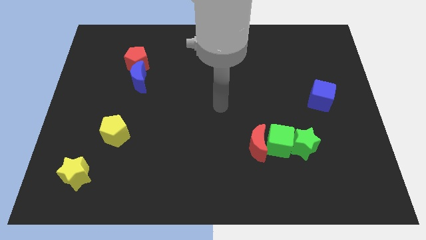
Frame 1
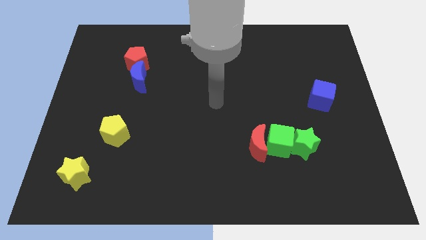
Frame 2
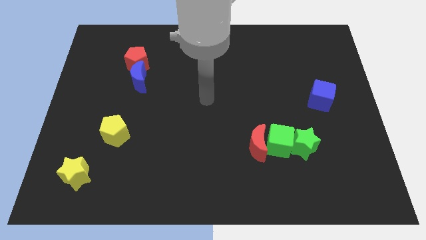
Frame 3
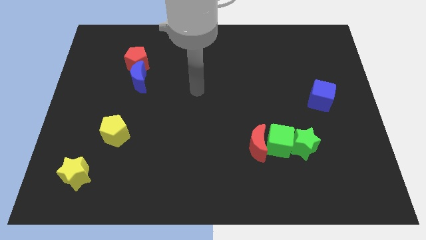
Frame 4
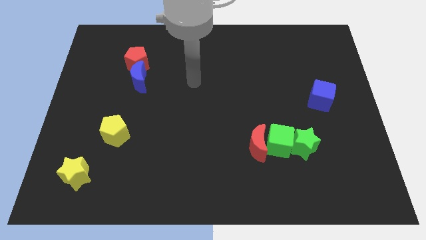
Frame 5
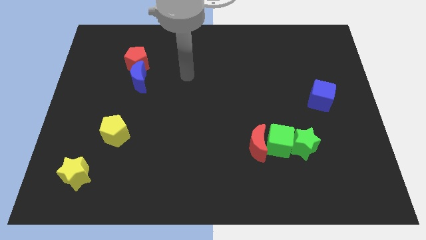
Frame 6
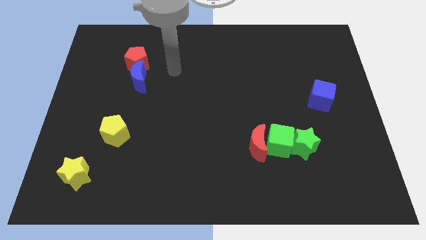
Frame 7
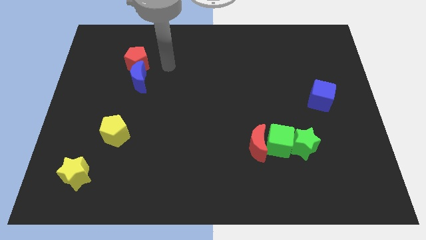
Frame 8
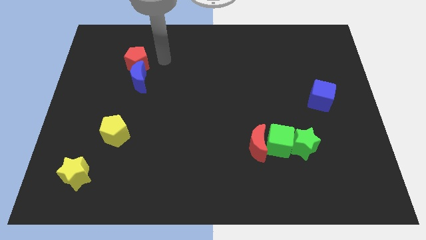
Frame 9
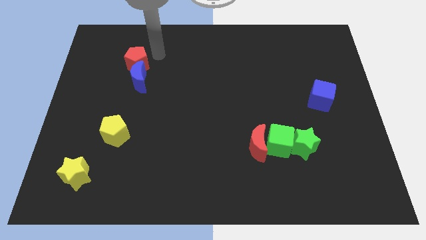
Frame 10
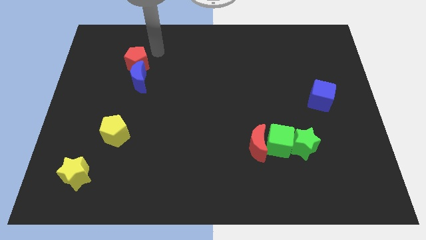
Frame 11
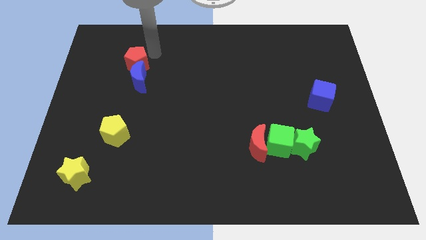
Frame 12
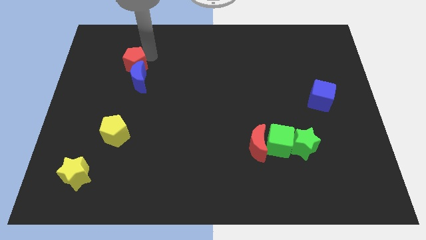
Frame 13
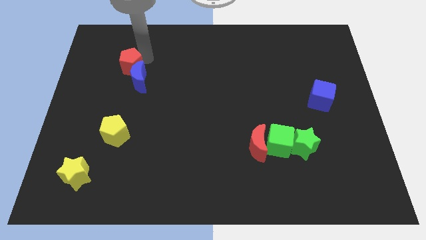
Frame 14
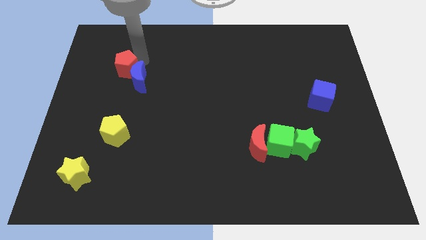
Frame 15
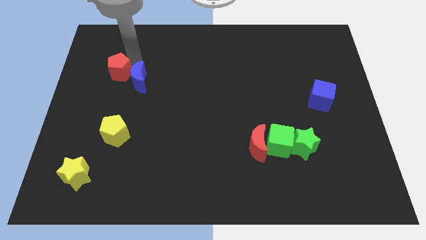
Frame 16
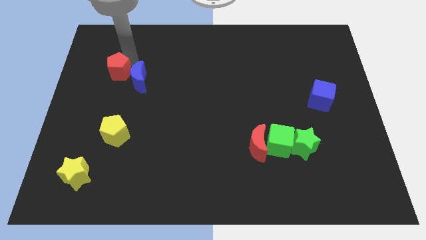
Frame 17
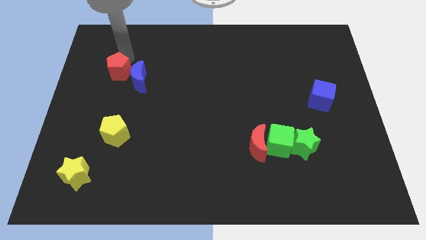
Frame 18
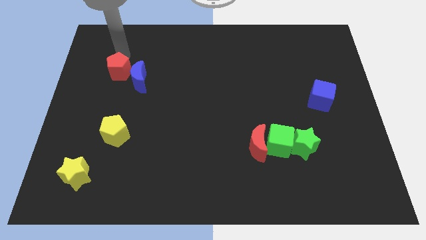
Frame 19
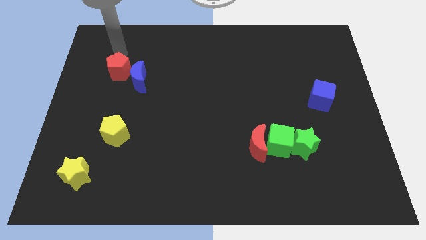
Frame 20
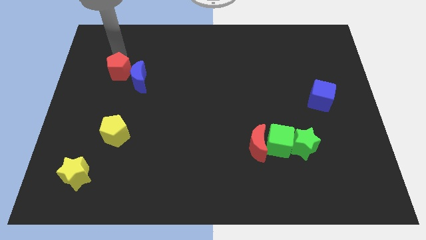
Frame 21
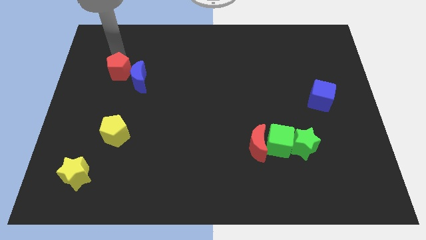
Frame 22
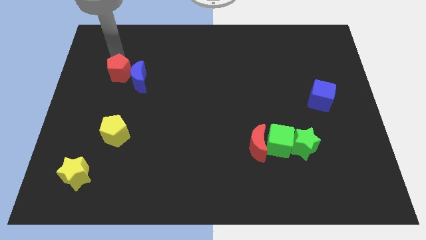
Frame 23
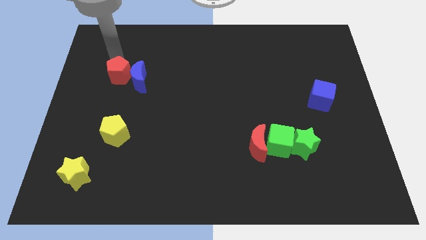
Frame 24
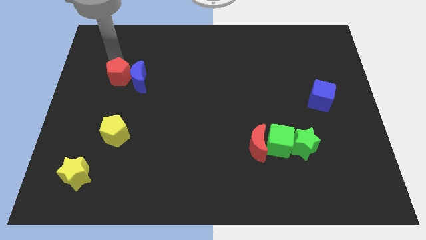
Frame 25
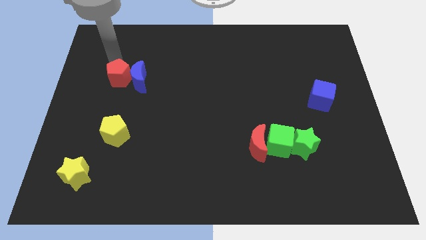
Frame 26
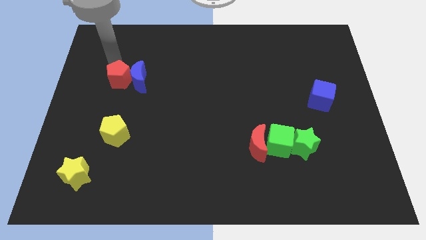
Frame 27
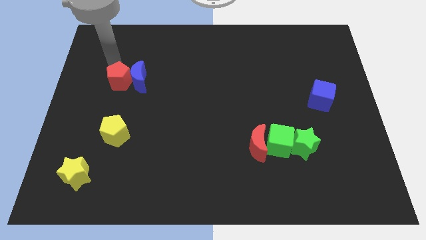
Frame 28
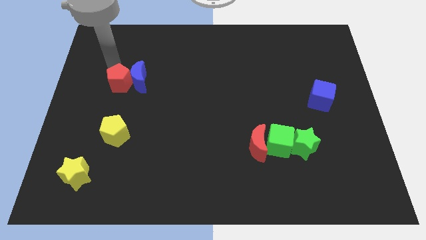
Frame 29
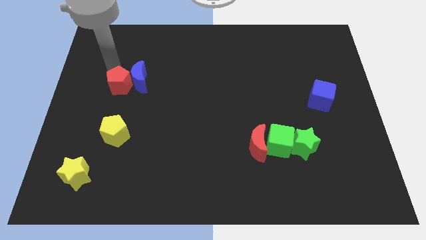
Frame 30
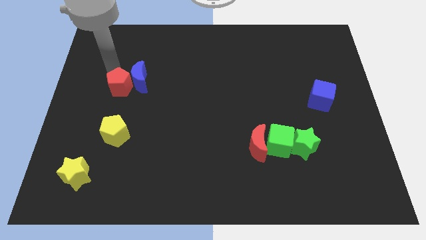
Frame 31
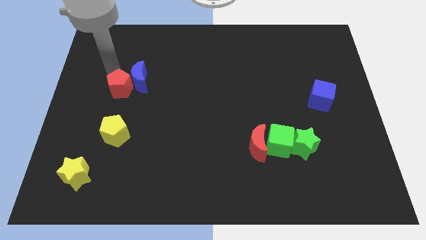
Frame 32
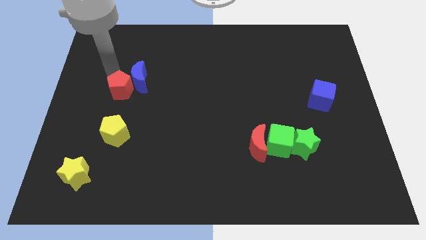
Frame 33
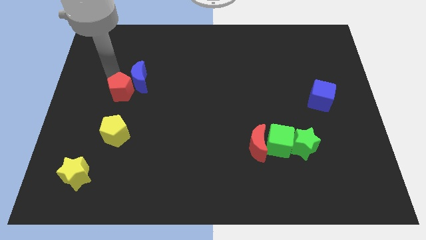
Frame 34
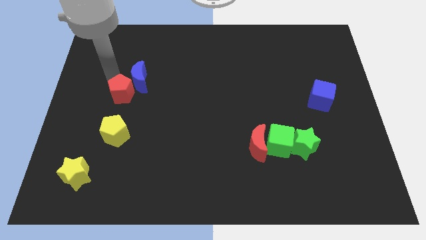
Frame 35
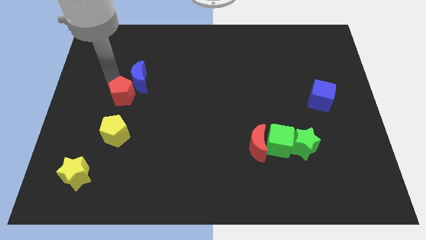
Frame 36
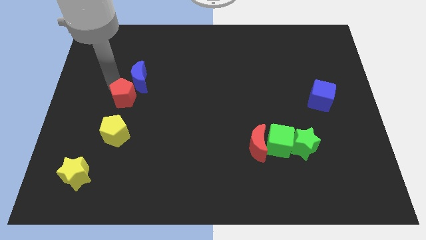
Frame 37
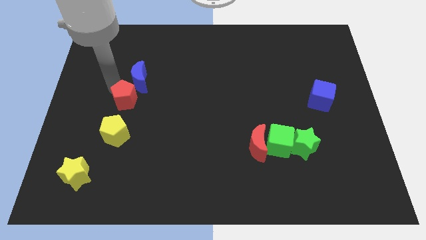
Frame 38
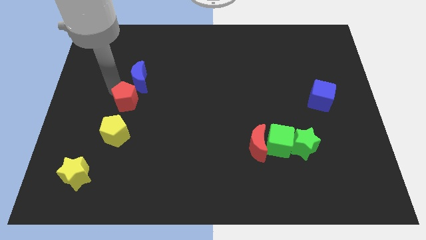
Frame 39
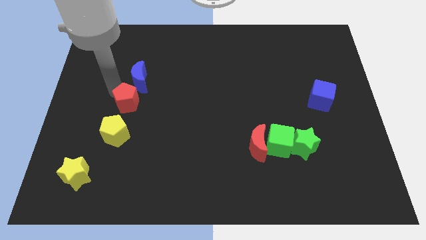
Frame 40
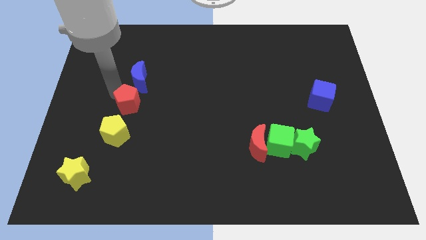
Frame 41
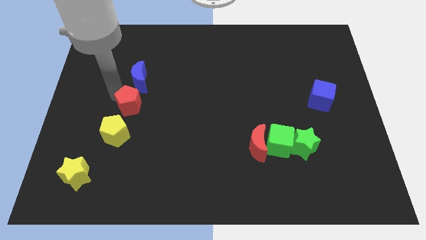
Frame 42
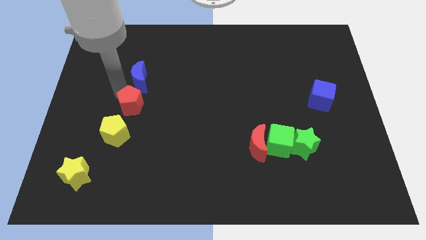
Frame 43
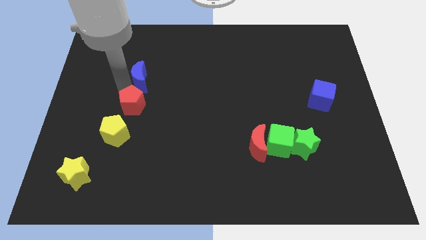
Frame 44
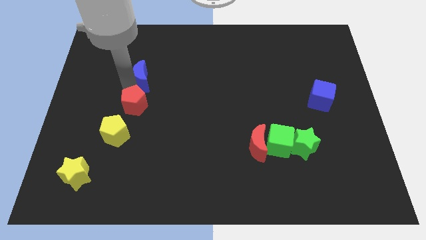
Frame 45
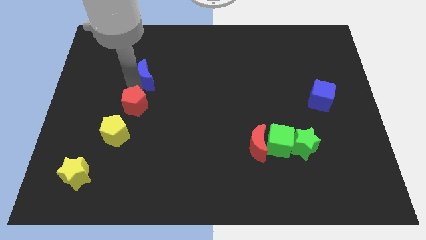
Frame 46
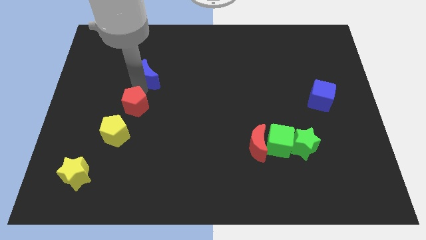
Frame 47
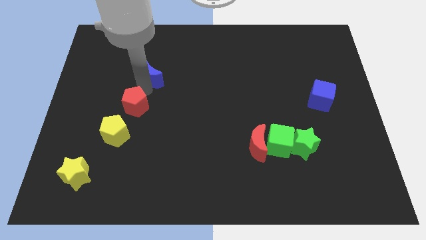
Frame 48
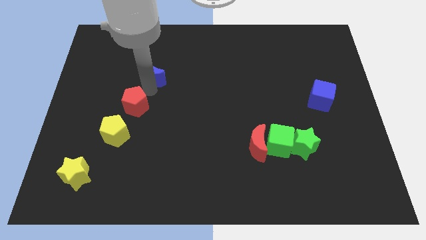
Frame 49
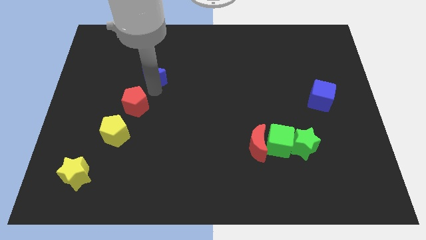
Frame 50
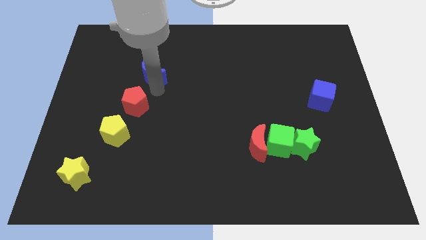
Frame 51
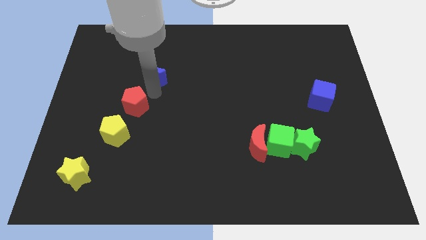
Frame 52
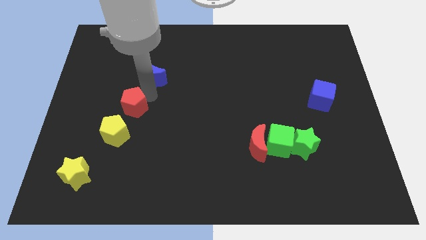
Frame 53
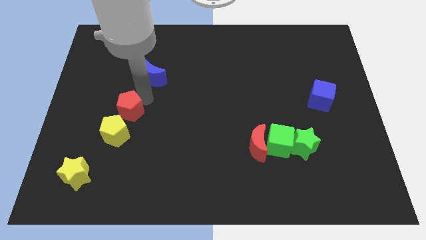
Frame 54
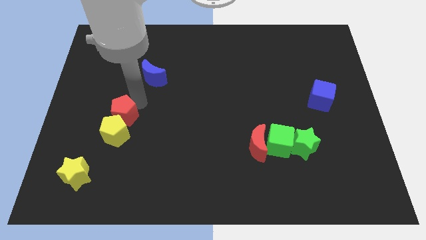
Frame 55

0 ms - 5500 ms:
slide the red pentagon towards the yellow pentagon
